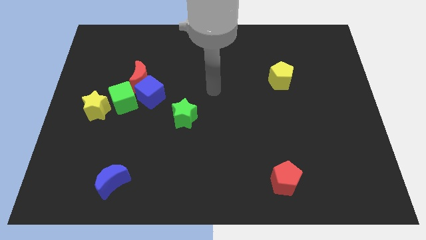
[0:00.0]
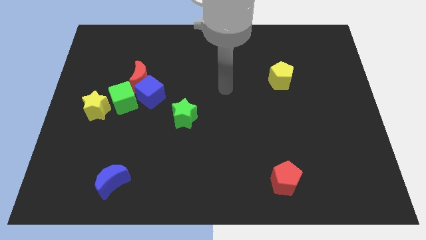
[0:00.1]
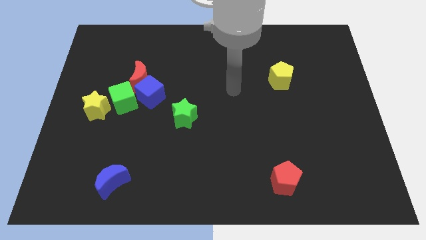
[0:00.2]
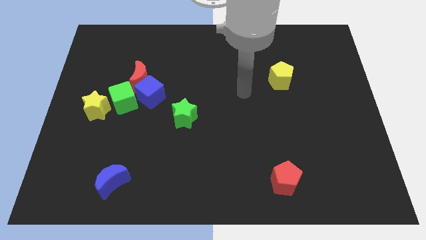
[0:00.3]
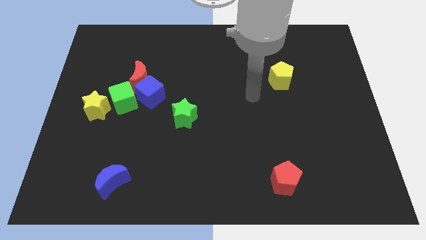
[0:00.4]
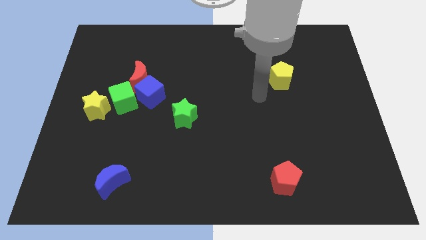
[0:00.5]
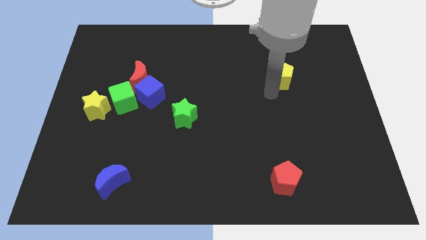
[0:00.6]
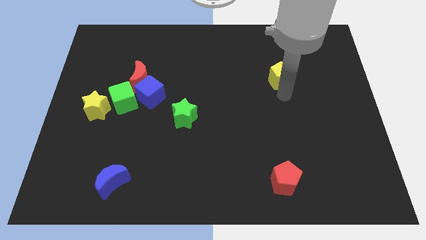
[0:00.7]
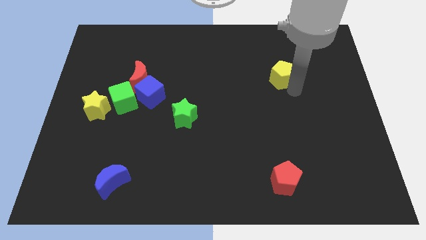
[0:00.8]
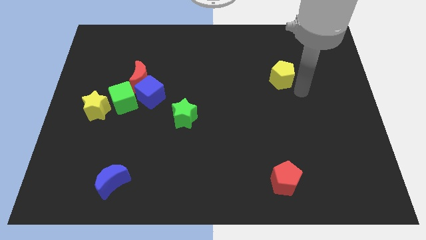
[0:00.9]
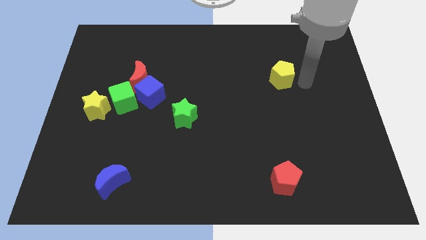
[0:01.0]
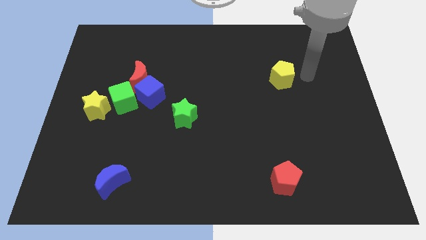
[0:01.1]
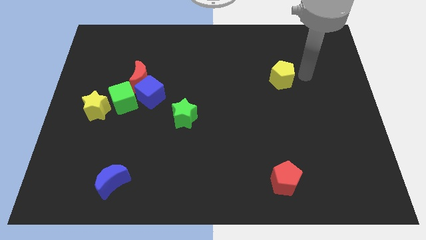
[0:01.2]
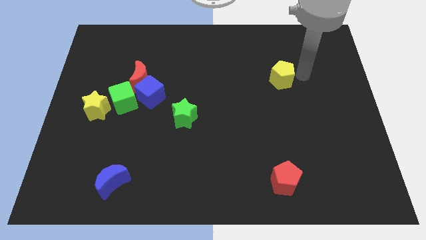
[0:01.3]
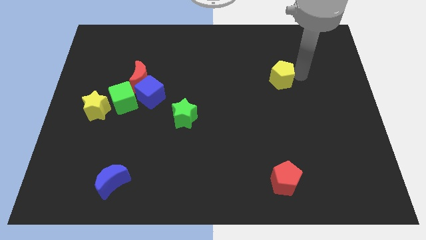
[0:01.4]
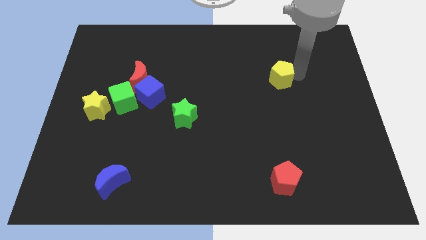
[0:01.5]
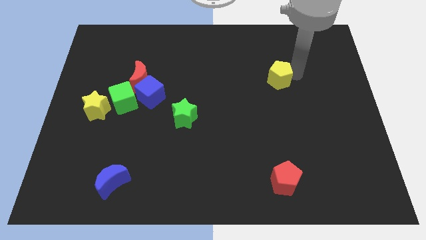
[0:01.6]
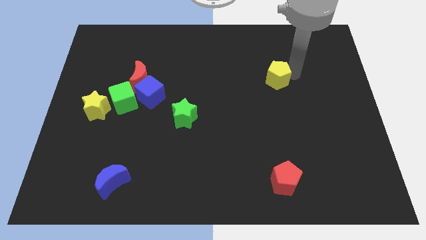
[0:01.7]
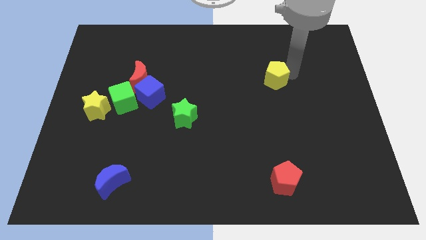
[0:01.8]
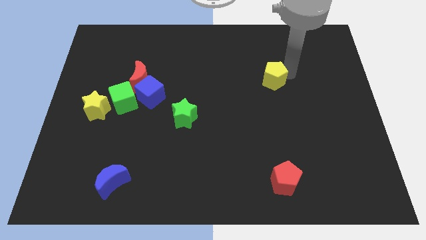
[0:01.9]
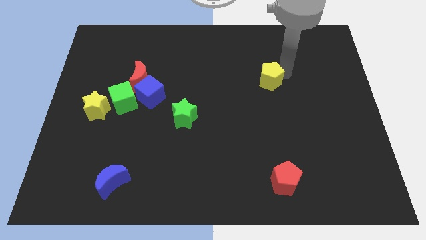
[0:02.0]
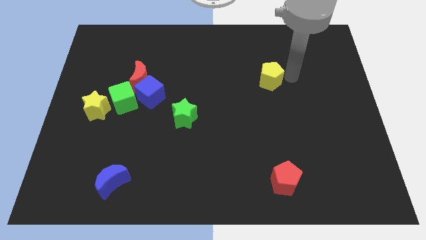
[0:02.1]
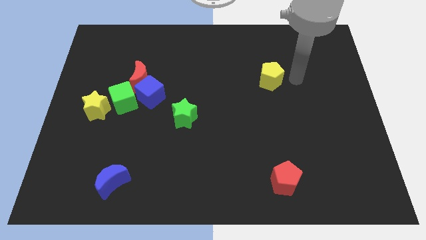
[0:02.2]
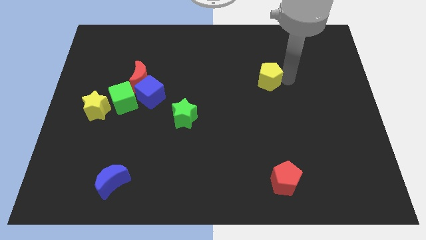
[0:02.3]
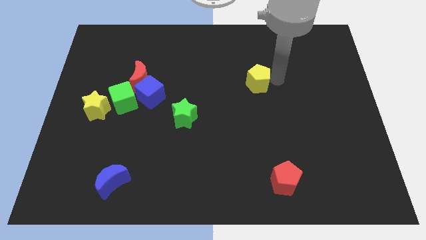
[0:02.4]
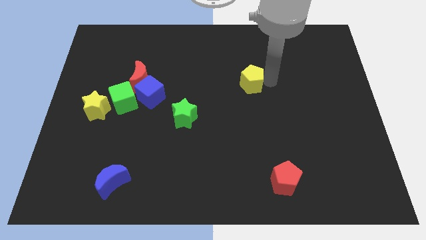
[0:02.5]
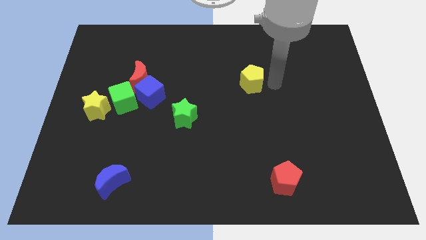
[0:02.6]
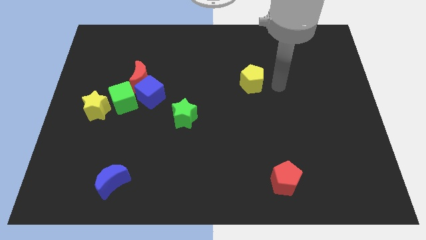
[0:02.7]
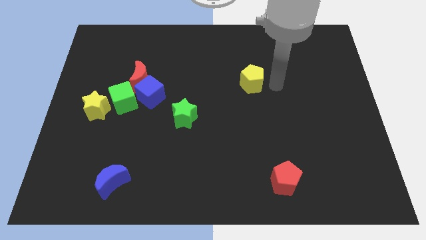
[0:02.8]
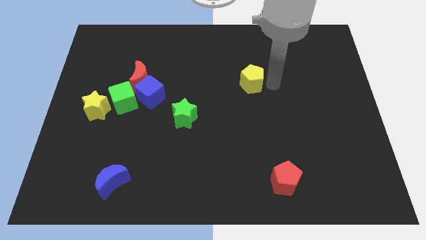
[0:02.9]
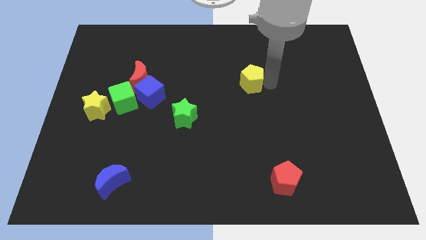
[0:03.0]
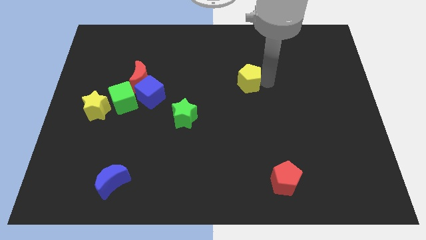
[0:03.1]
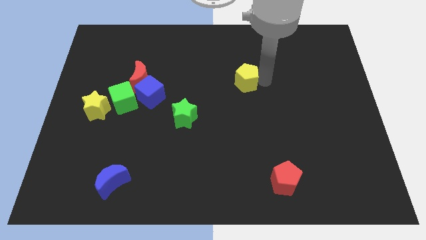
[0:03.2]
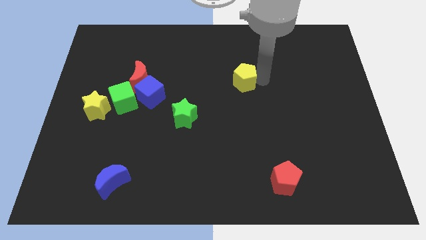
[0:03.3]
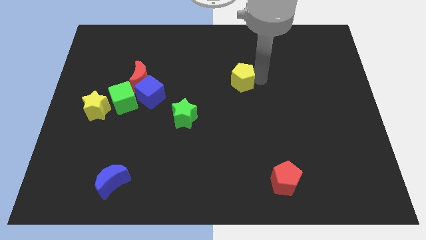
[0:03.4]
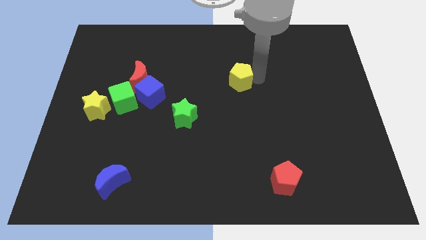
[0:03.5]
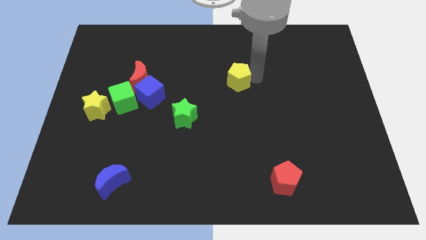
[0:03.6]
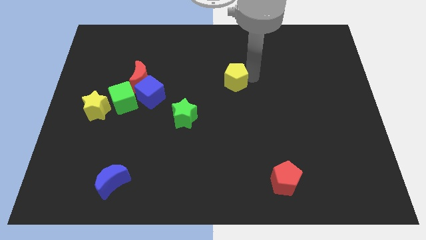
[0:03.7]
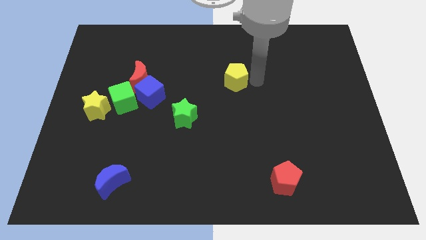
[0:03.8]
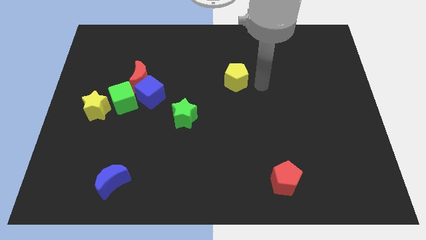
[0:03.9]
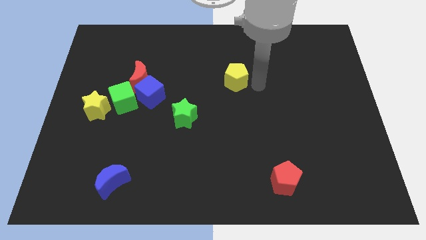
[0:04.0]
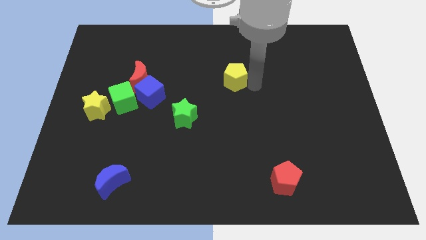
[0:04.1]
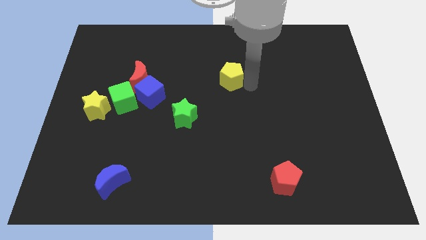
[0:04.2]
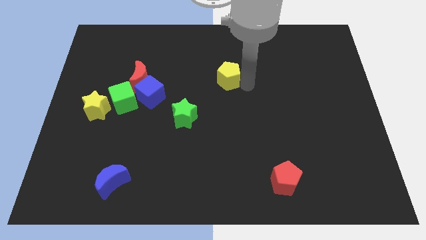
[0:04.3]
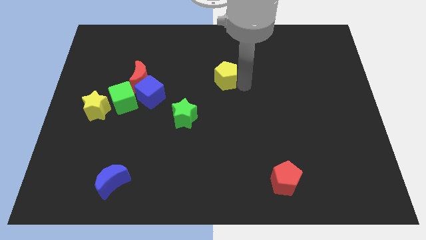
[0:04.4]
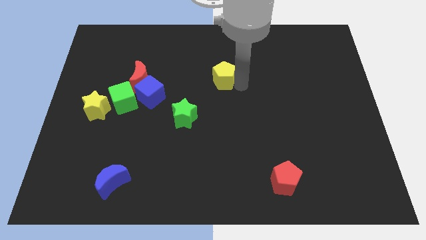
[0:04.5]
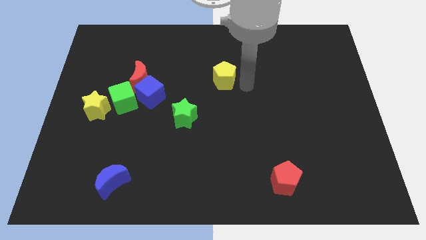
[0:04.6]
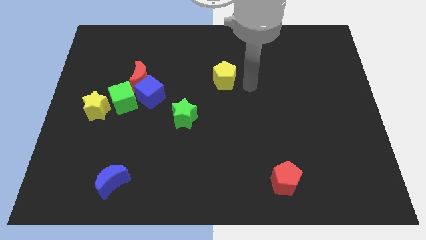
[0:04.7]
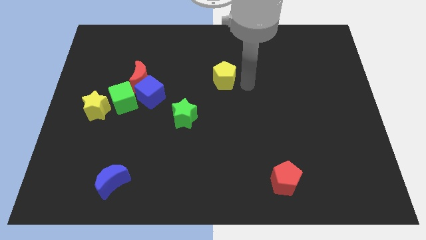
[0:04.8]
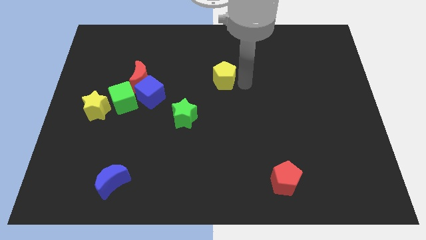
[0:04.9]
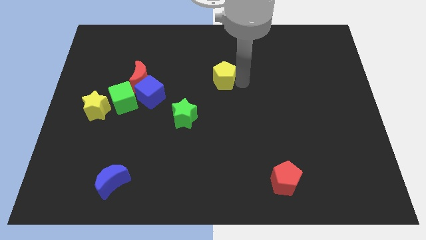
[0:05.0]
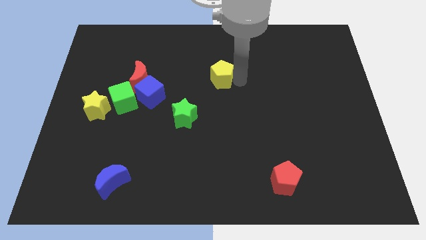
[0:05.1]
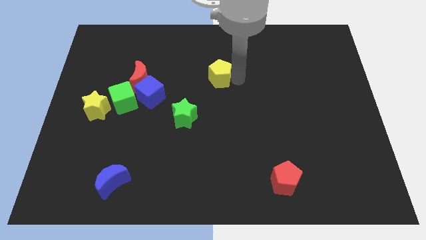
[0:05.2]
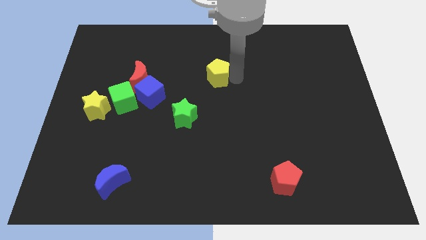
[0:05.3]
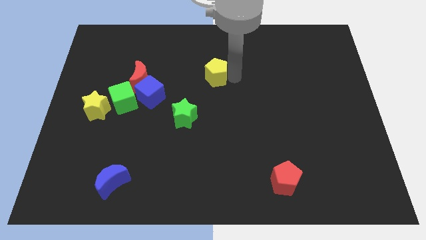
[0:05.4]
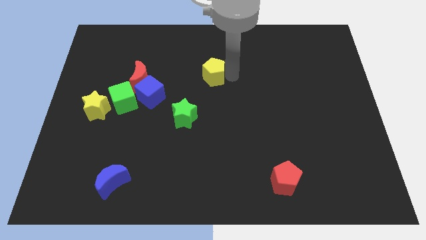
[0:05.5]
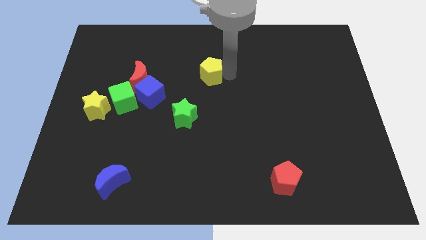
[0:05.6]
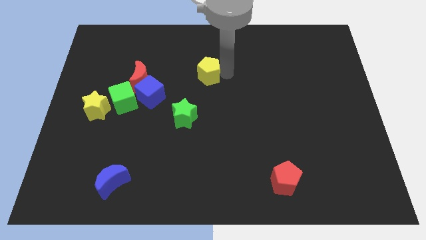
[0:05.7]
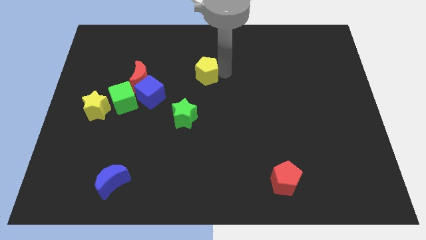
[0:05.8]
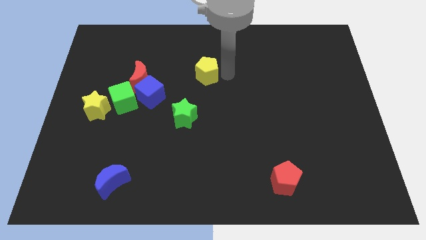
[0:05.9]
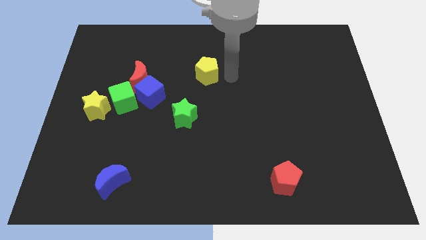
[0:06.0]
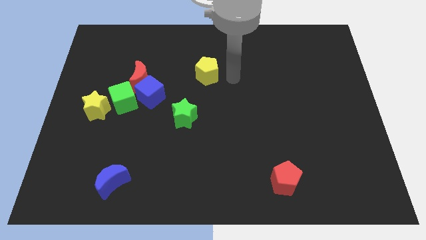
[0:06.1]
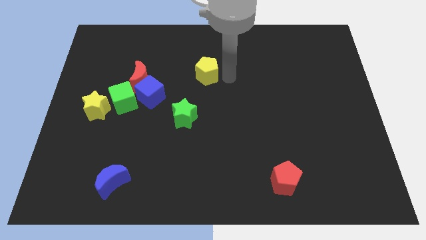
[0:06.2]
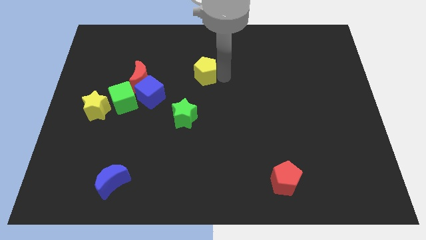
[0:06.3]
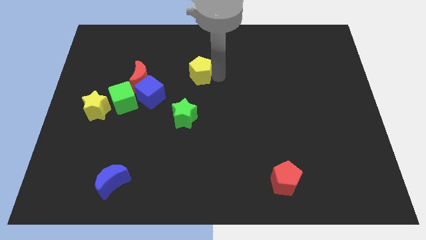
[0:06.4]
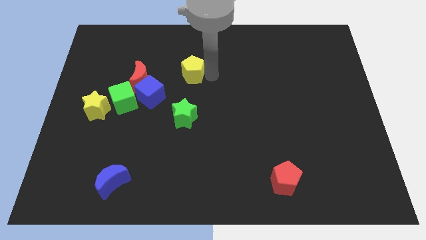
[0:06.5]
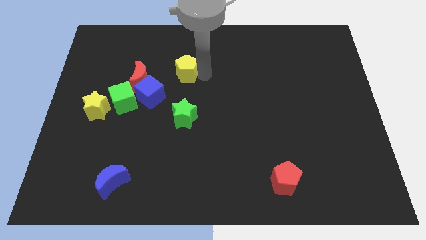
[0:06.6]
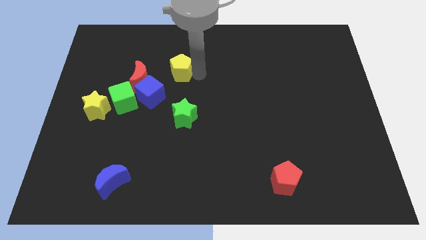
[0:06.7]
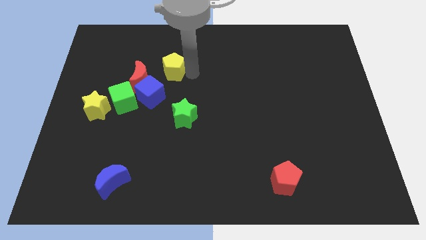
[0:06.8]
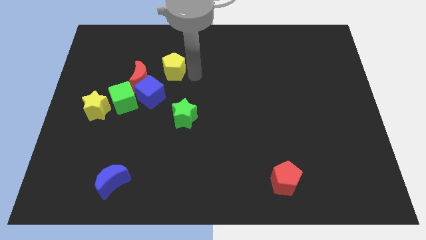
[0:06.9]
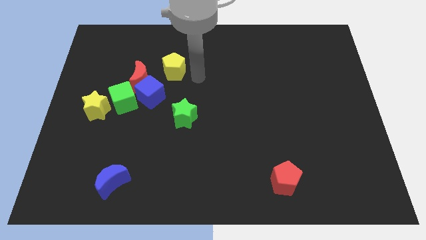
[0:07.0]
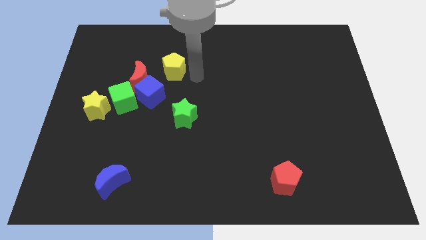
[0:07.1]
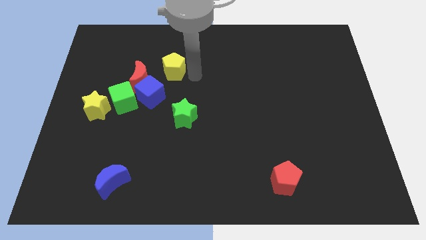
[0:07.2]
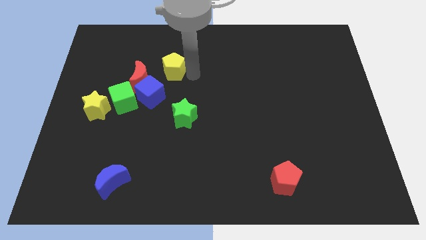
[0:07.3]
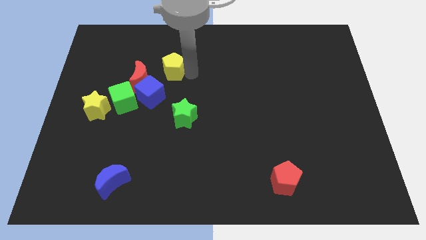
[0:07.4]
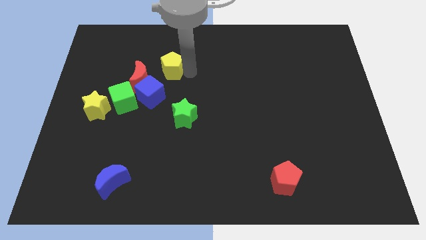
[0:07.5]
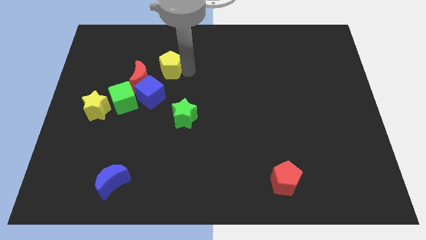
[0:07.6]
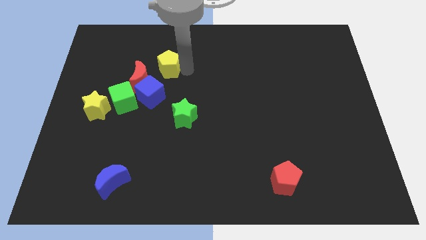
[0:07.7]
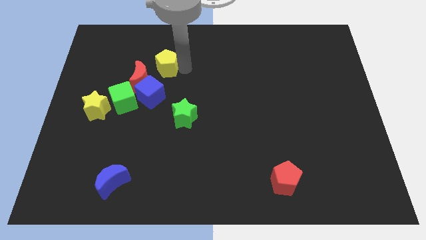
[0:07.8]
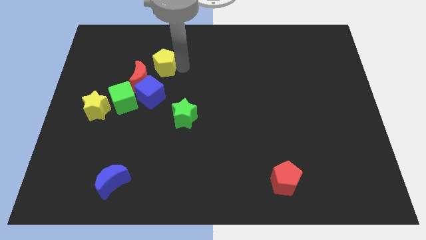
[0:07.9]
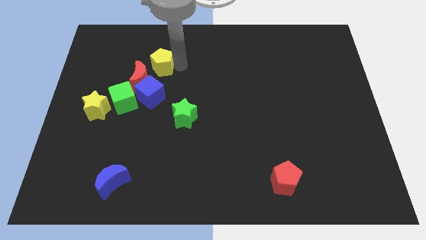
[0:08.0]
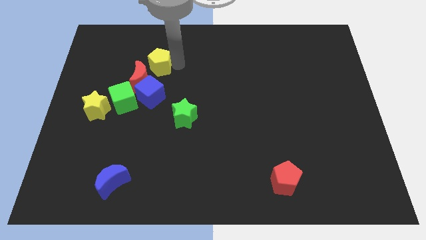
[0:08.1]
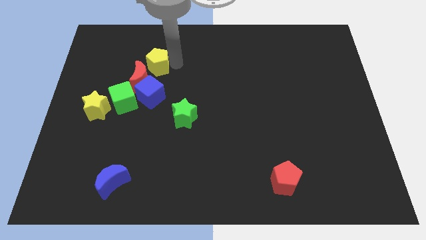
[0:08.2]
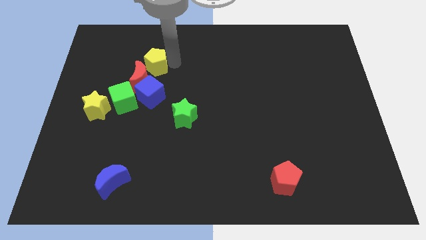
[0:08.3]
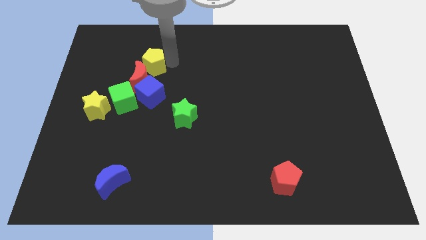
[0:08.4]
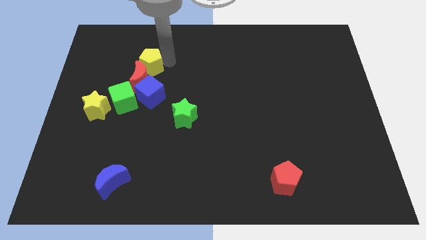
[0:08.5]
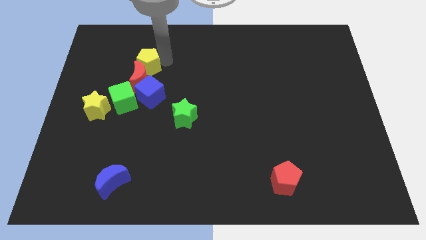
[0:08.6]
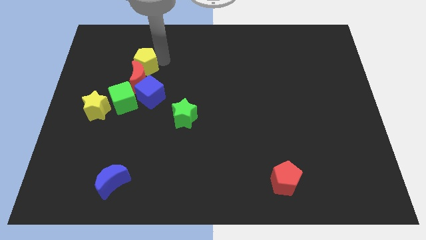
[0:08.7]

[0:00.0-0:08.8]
move the yellow pentagon to the top left side of the red moon
